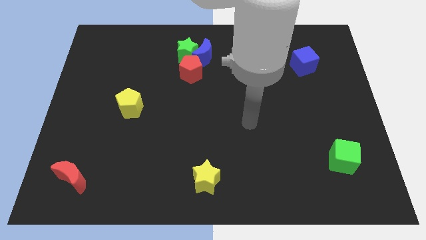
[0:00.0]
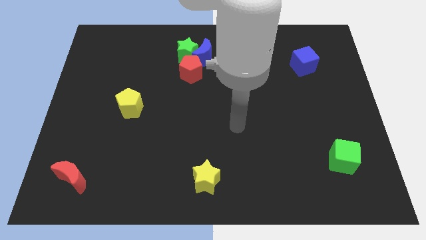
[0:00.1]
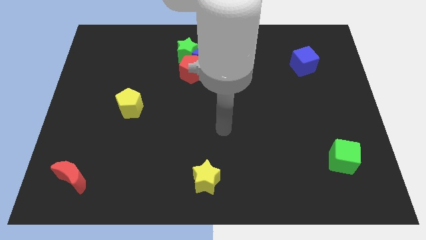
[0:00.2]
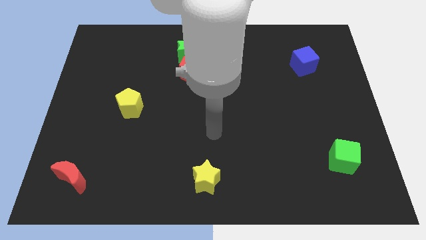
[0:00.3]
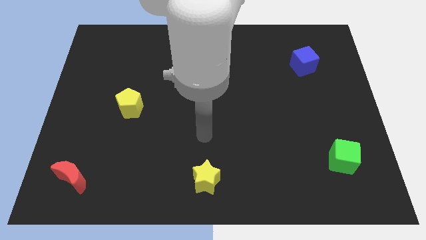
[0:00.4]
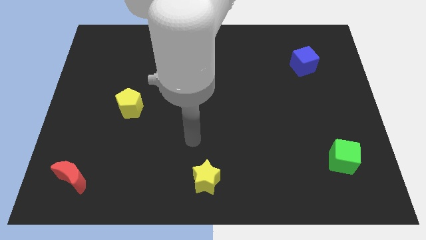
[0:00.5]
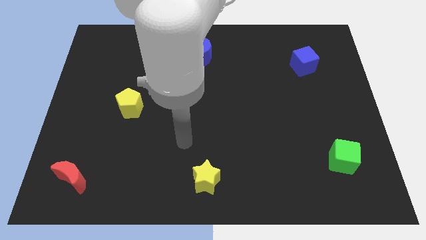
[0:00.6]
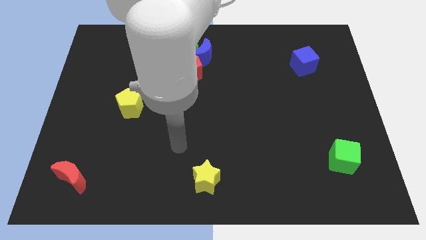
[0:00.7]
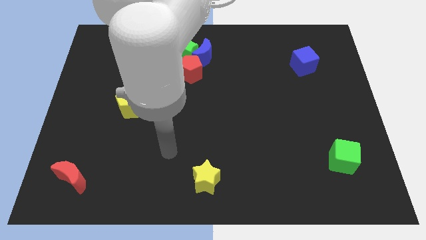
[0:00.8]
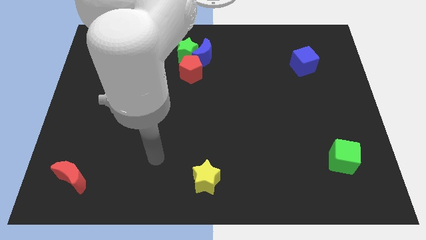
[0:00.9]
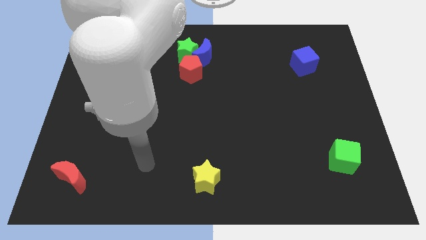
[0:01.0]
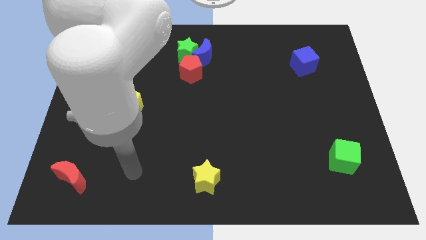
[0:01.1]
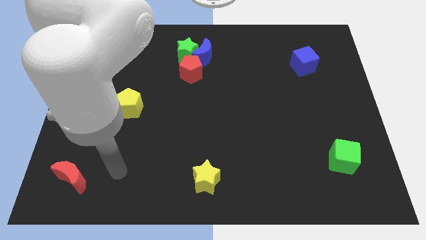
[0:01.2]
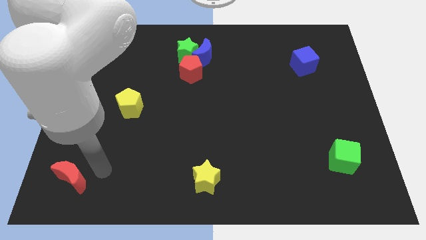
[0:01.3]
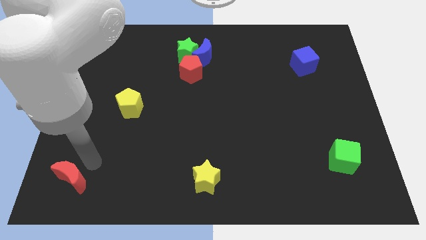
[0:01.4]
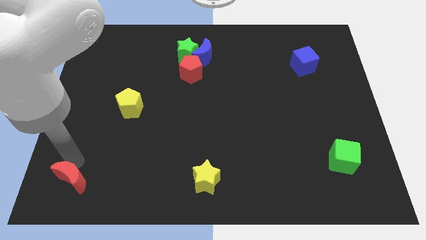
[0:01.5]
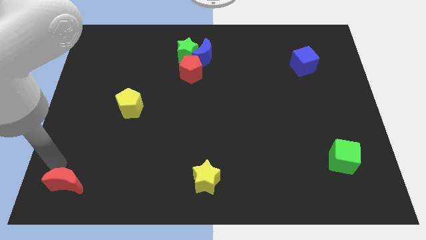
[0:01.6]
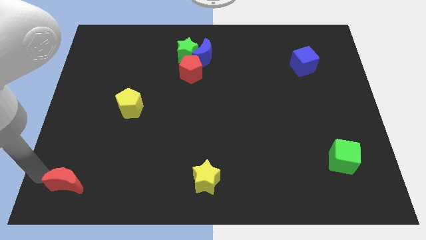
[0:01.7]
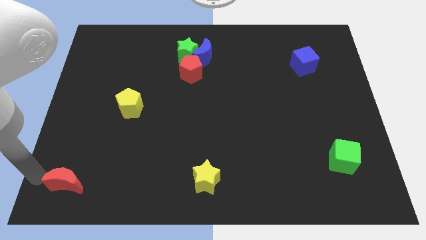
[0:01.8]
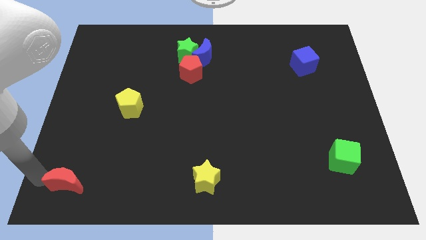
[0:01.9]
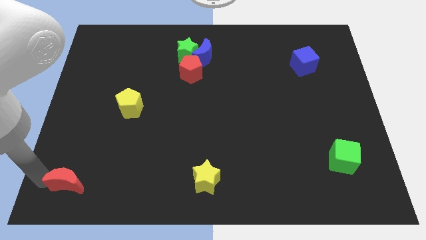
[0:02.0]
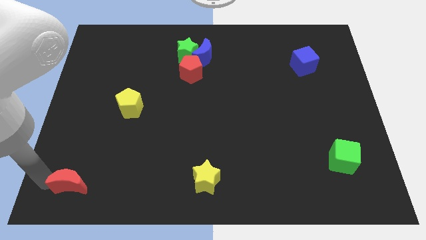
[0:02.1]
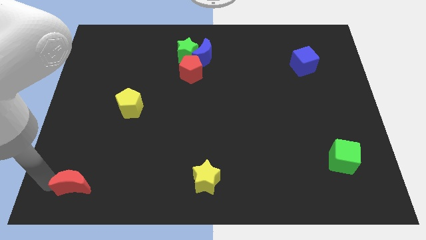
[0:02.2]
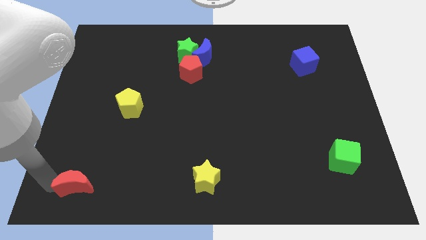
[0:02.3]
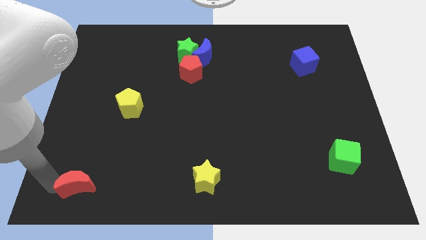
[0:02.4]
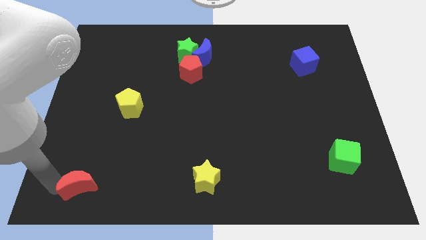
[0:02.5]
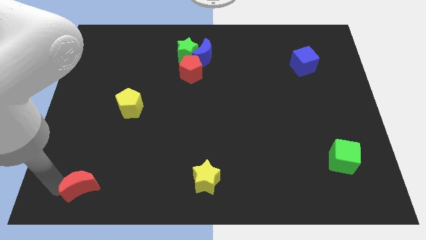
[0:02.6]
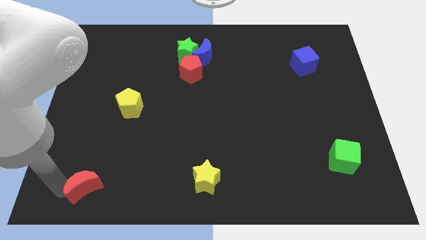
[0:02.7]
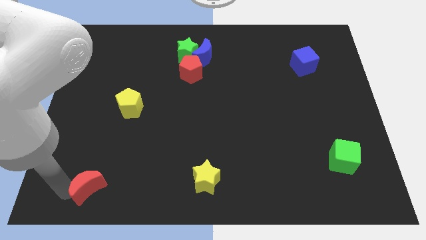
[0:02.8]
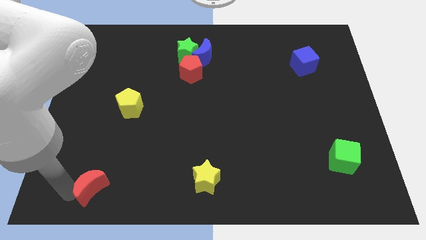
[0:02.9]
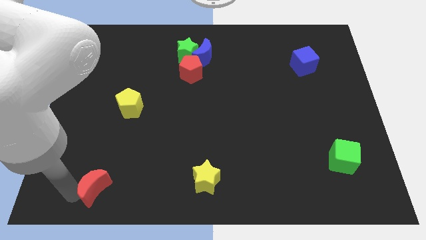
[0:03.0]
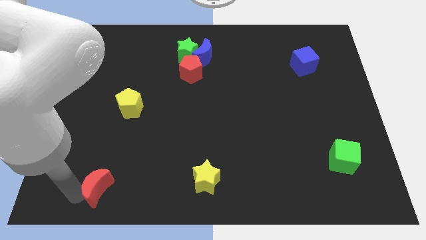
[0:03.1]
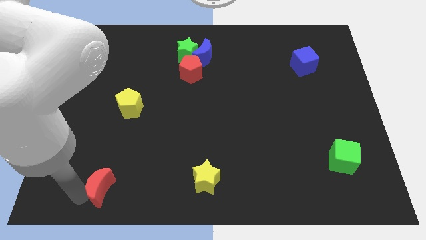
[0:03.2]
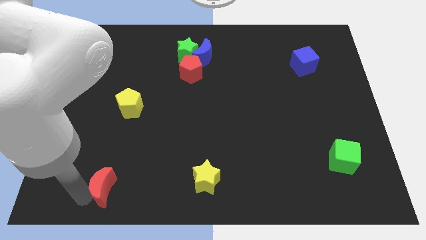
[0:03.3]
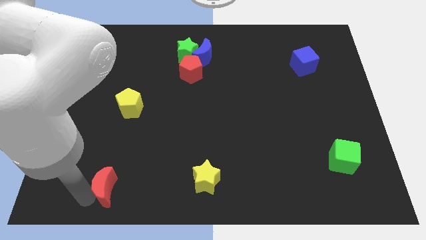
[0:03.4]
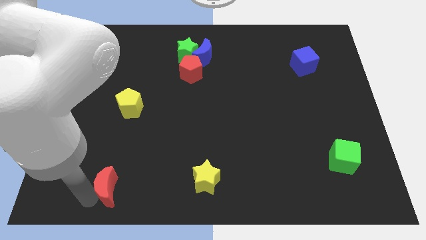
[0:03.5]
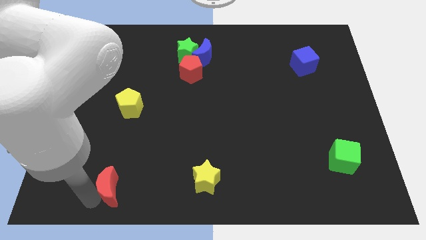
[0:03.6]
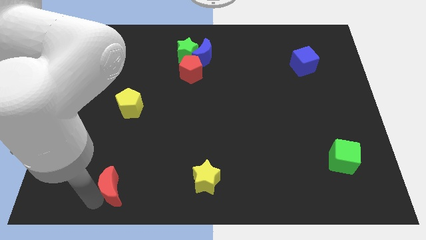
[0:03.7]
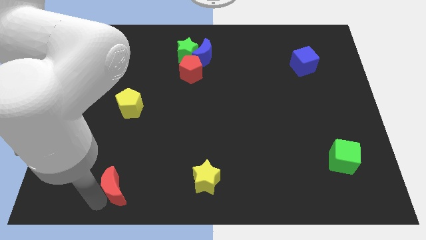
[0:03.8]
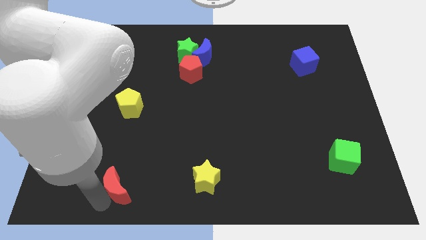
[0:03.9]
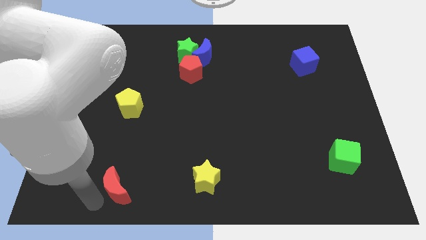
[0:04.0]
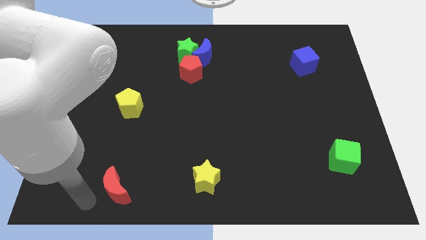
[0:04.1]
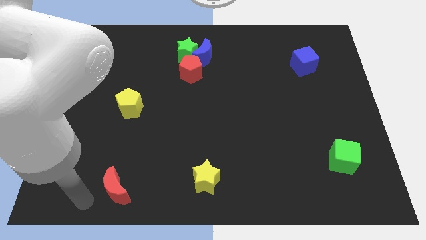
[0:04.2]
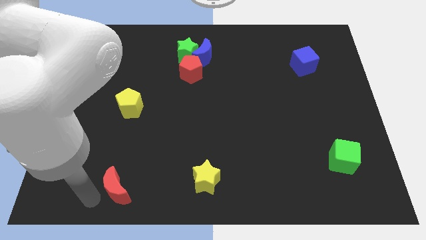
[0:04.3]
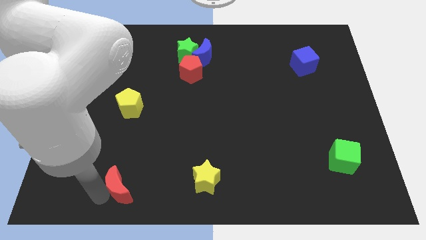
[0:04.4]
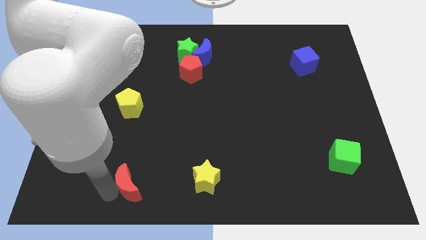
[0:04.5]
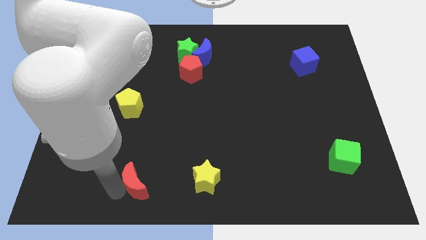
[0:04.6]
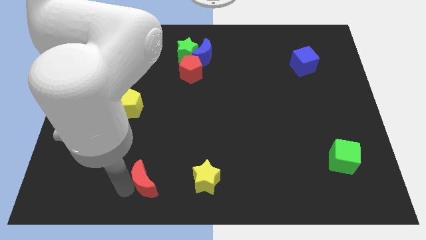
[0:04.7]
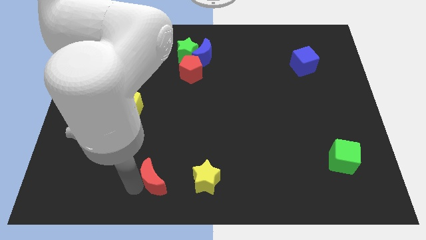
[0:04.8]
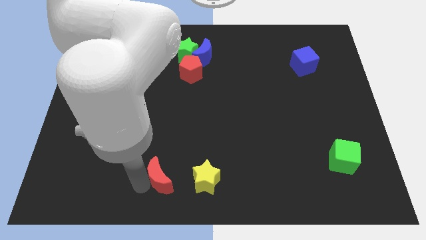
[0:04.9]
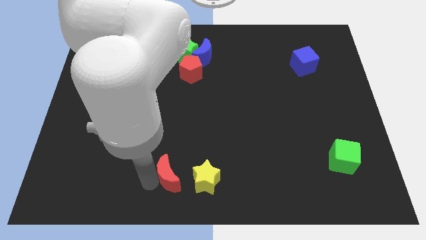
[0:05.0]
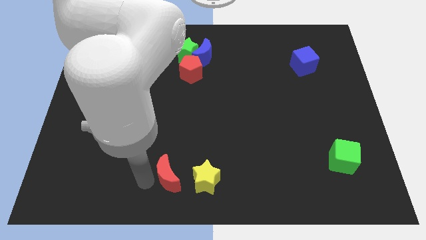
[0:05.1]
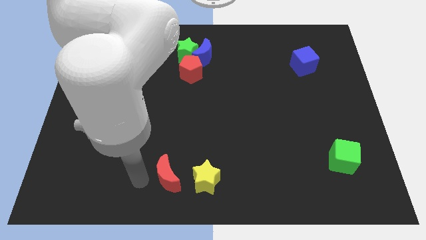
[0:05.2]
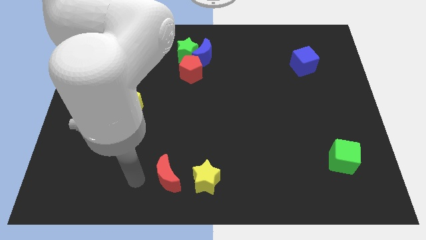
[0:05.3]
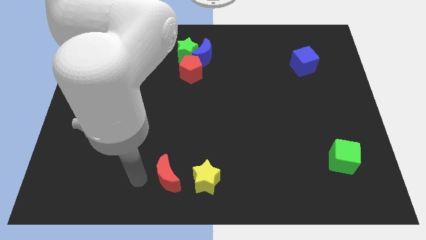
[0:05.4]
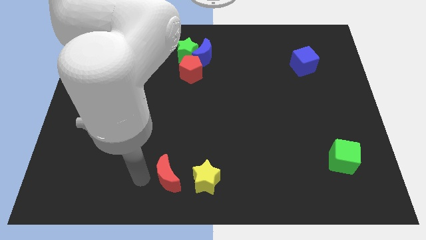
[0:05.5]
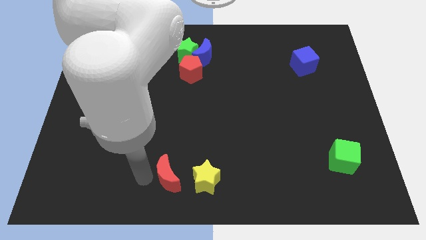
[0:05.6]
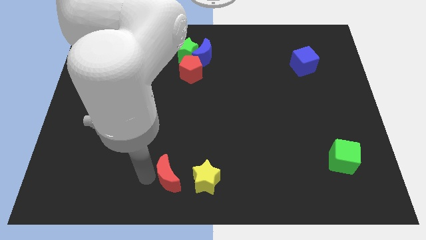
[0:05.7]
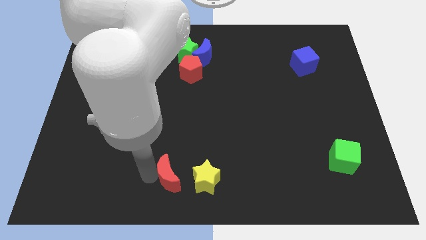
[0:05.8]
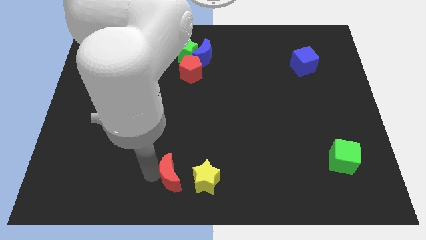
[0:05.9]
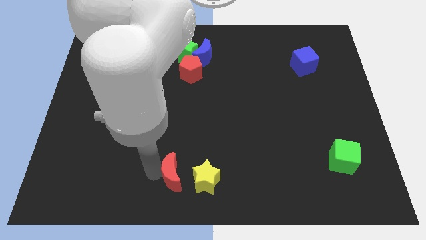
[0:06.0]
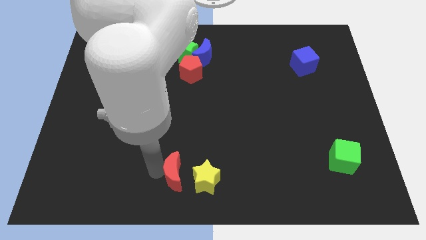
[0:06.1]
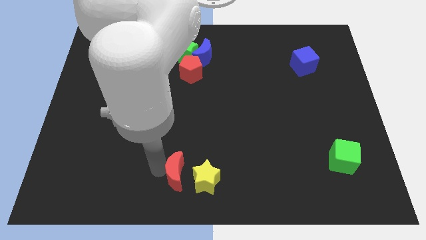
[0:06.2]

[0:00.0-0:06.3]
move the red moon next to the yellow star

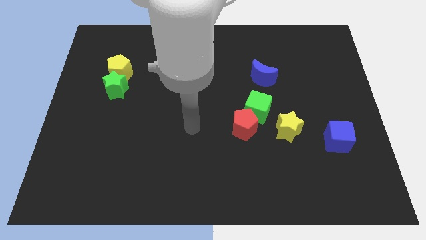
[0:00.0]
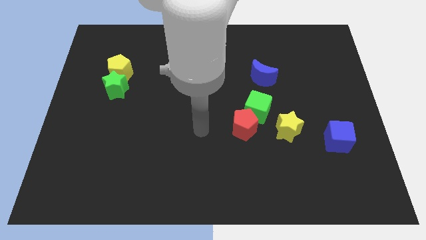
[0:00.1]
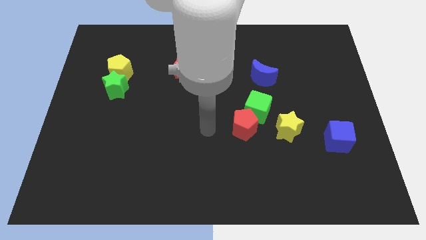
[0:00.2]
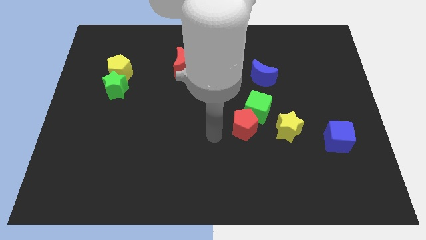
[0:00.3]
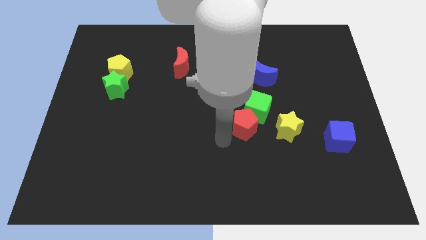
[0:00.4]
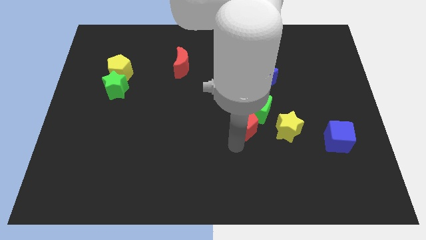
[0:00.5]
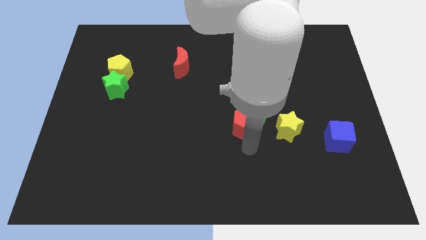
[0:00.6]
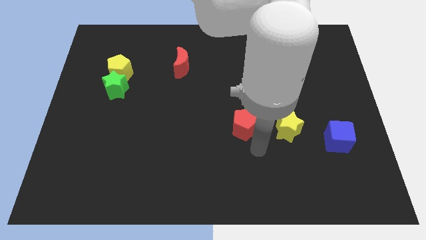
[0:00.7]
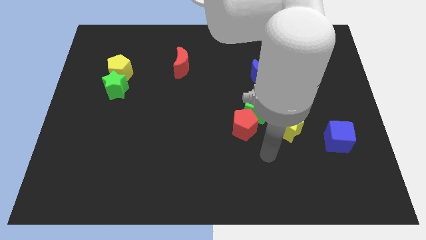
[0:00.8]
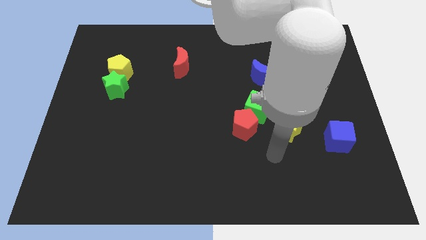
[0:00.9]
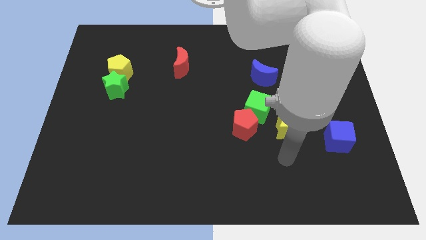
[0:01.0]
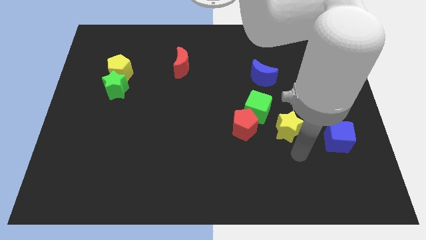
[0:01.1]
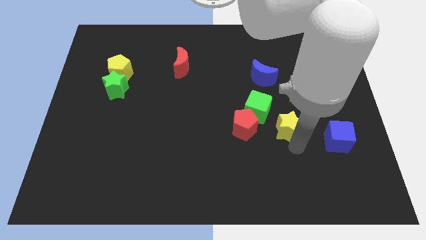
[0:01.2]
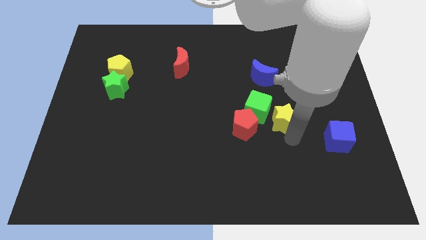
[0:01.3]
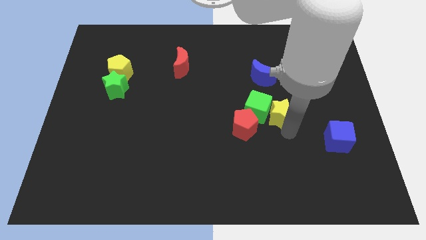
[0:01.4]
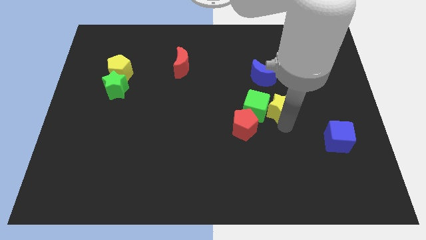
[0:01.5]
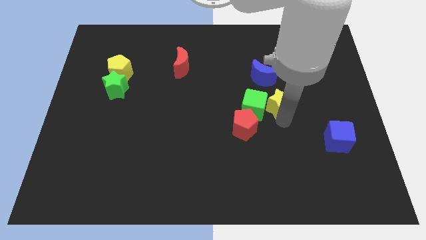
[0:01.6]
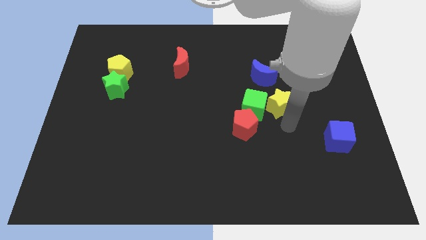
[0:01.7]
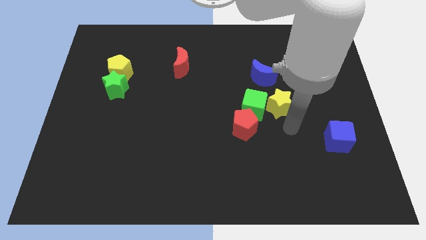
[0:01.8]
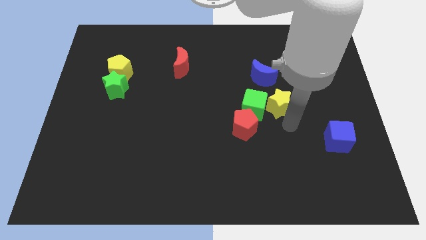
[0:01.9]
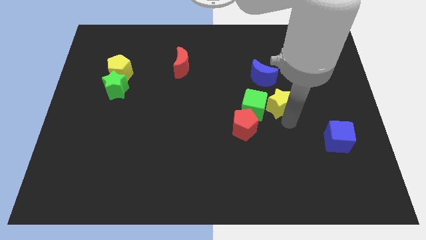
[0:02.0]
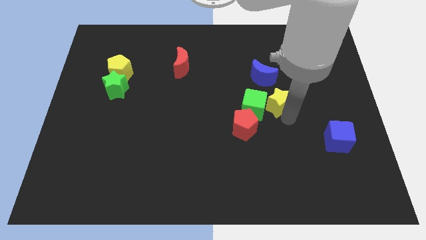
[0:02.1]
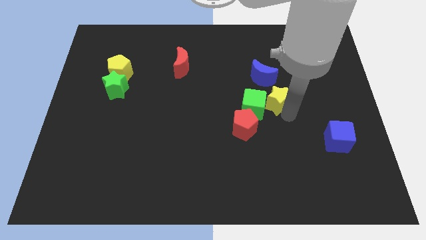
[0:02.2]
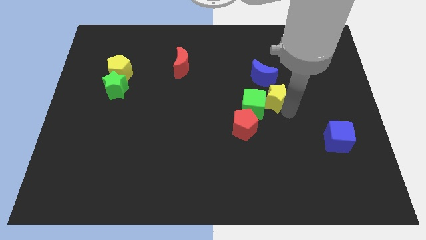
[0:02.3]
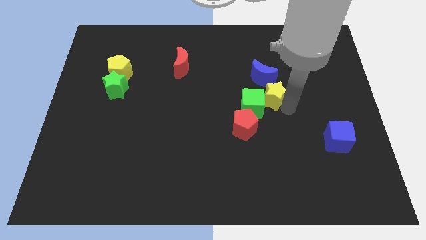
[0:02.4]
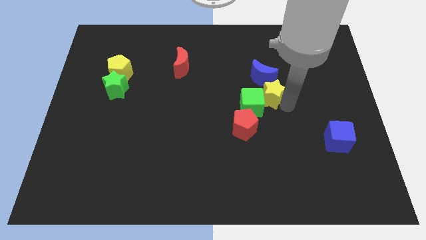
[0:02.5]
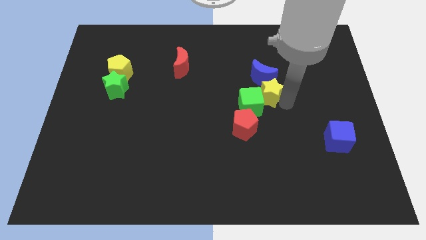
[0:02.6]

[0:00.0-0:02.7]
put the yellow star next to the blue moon
